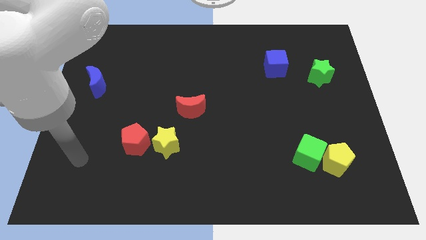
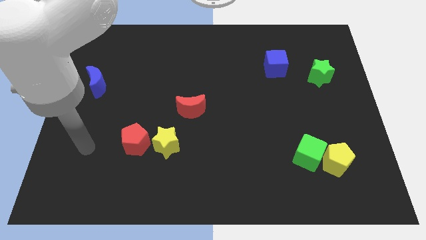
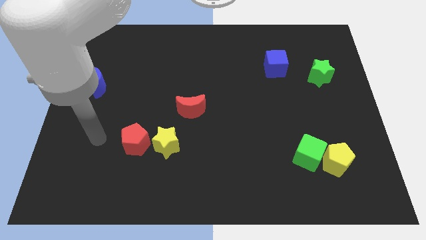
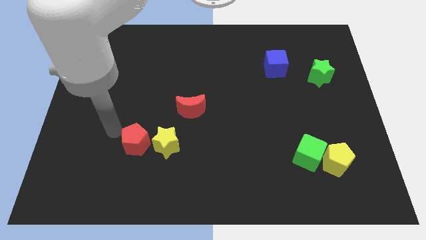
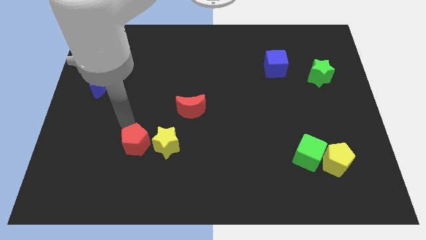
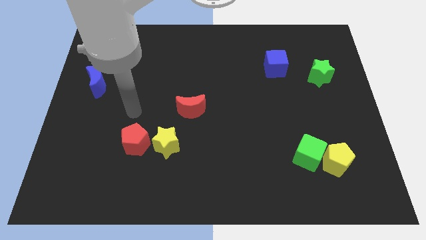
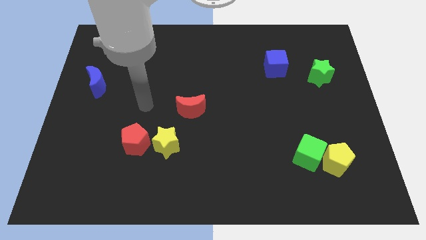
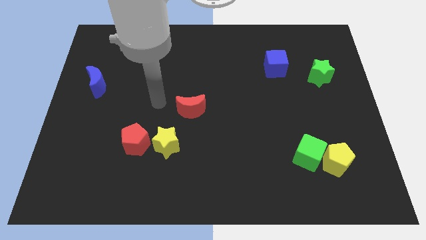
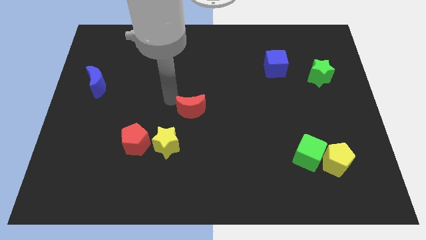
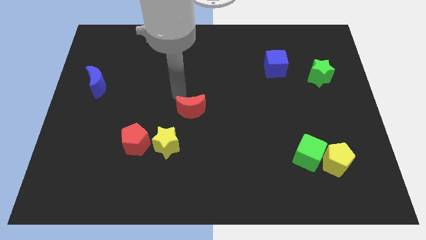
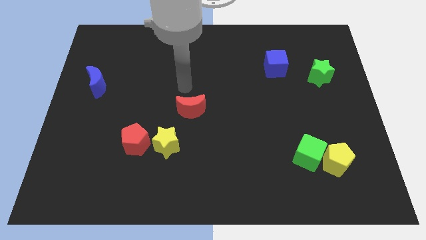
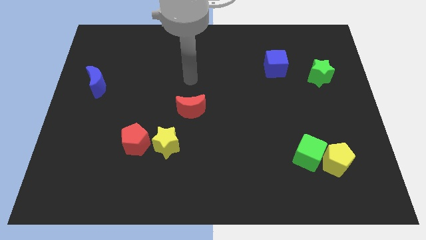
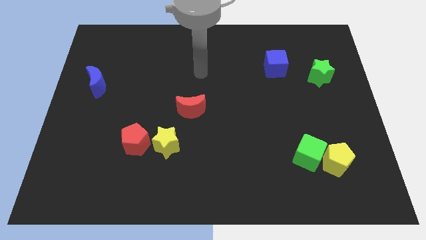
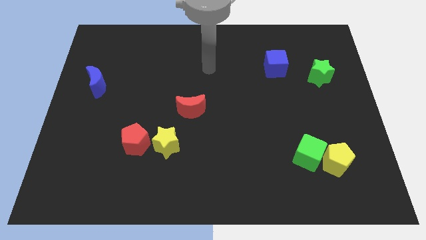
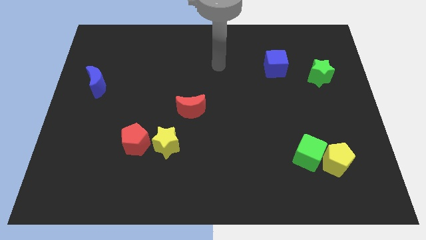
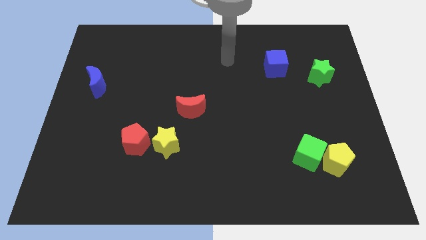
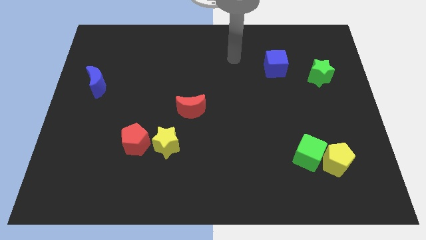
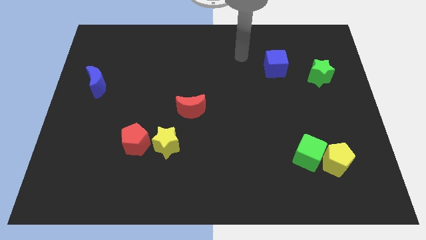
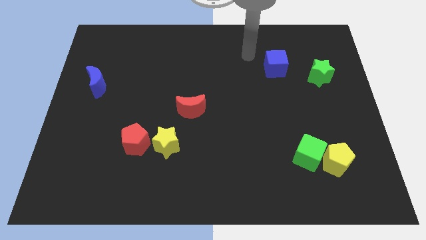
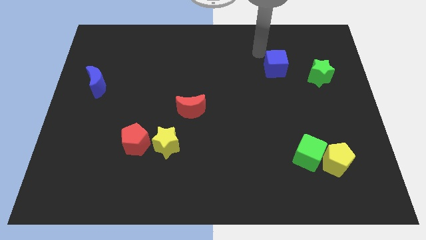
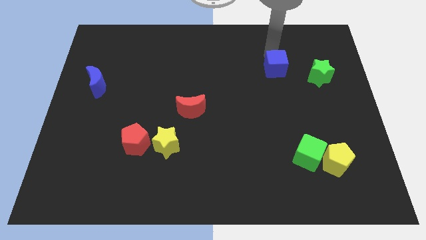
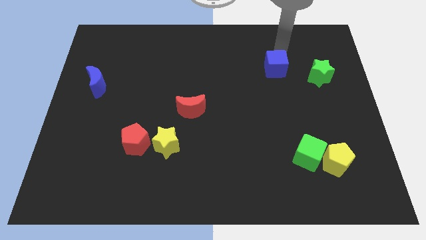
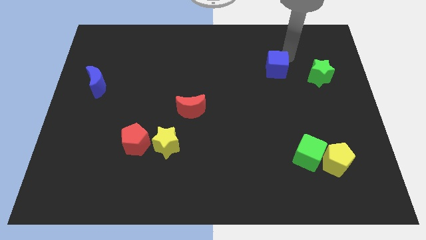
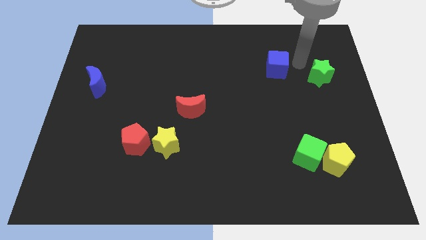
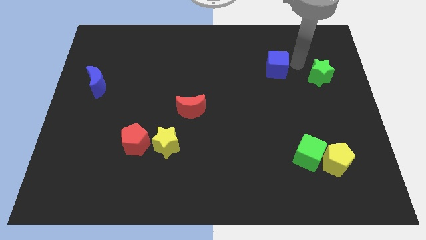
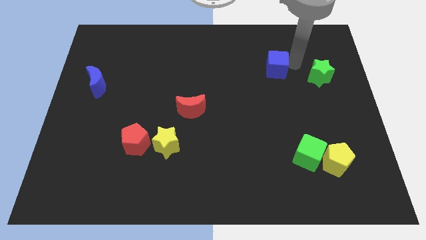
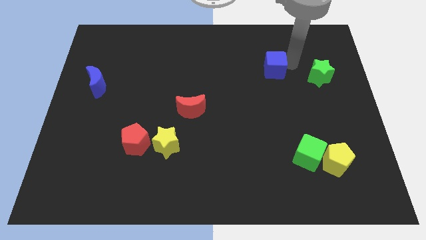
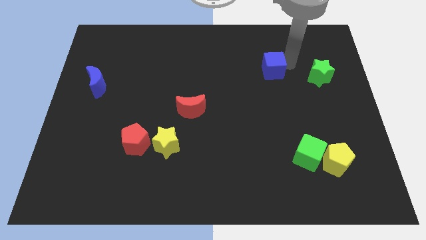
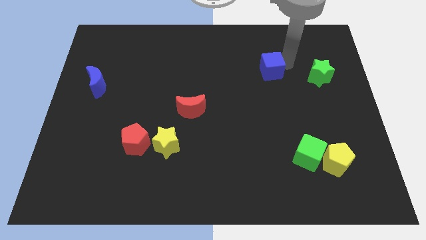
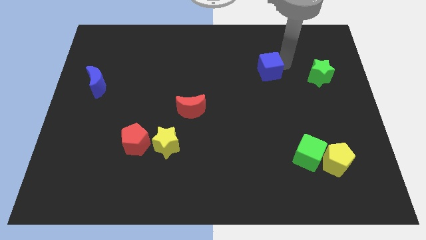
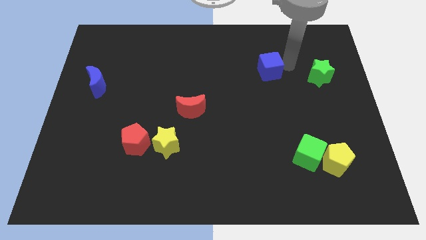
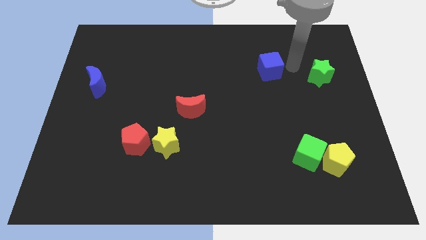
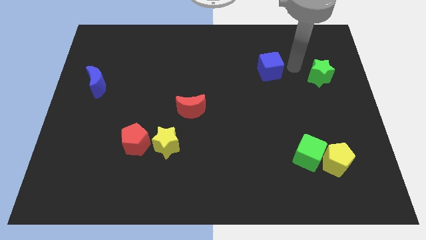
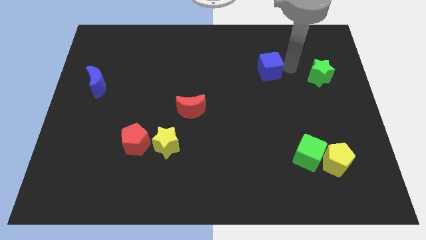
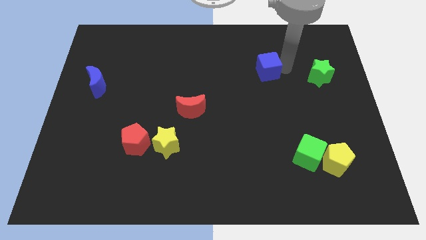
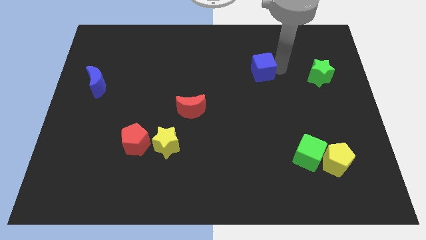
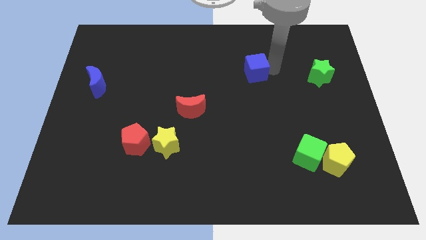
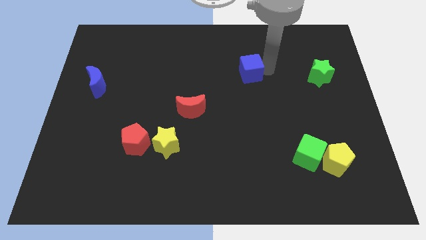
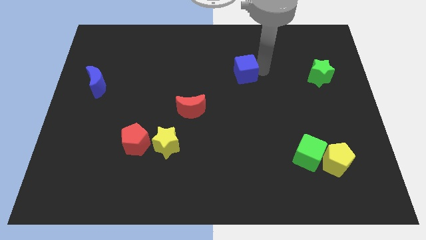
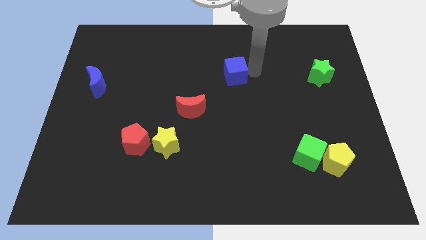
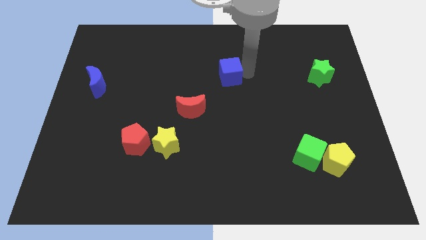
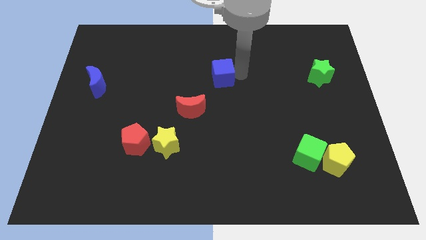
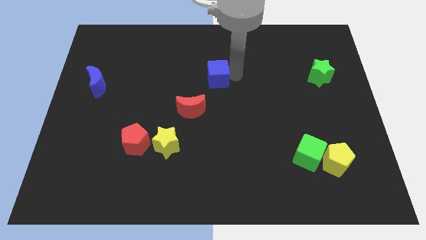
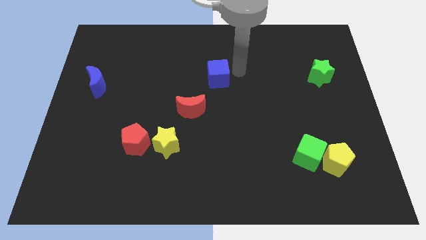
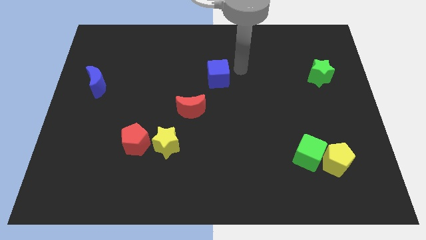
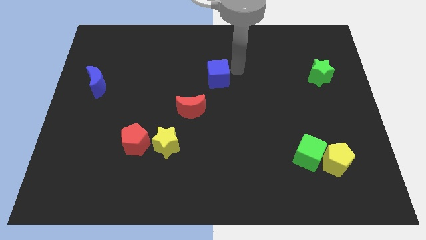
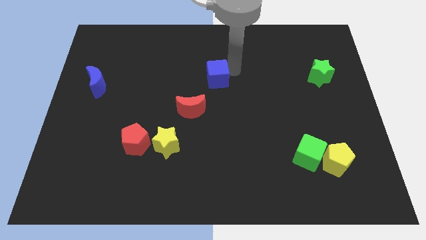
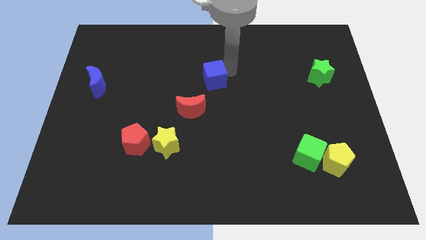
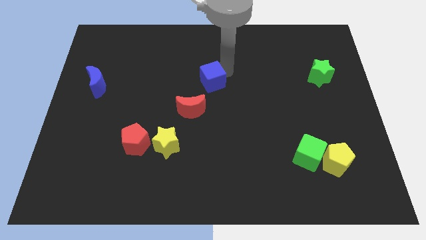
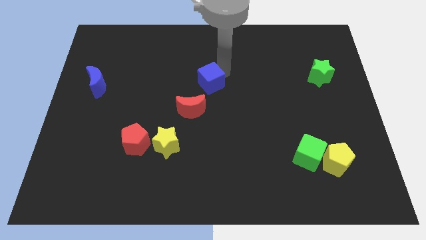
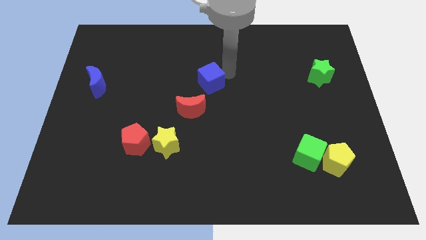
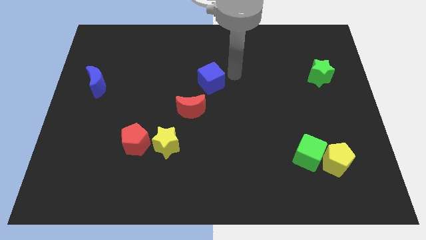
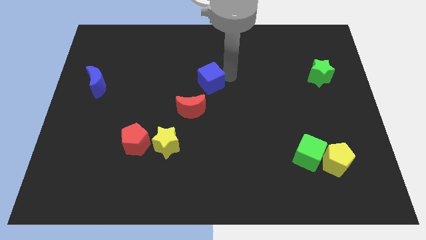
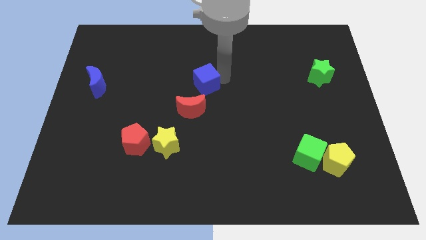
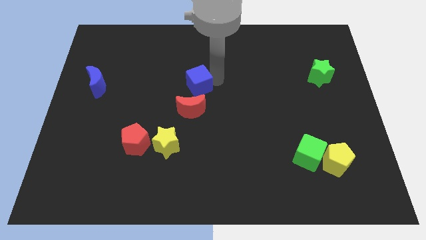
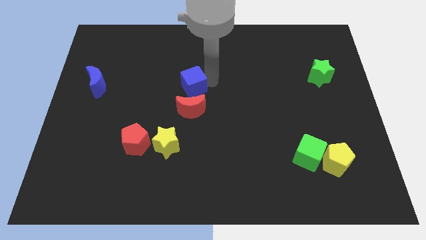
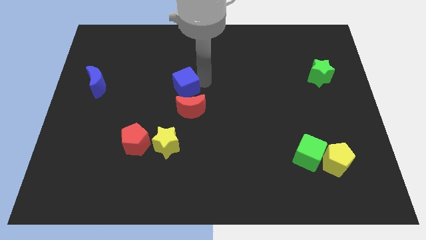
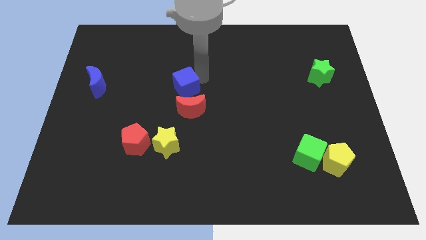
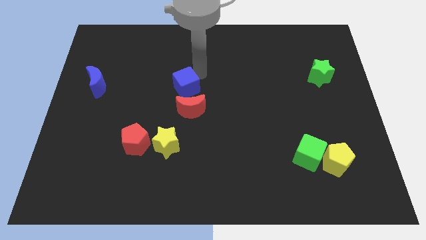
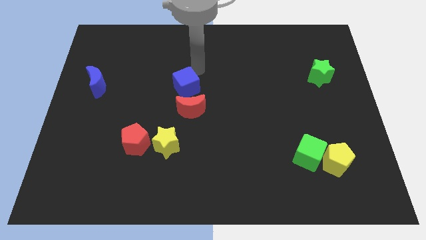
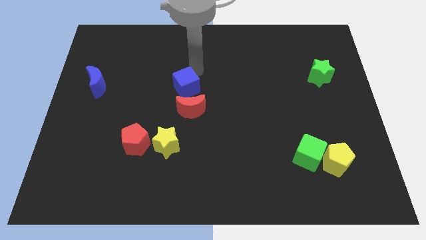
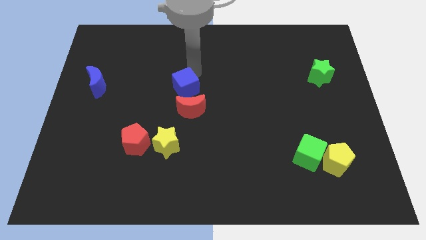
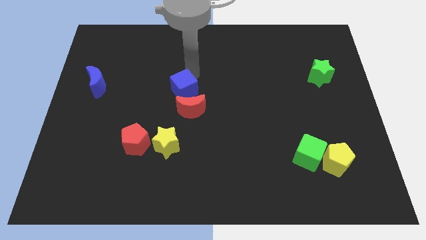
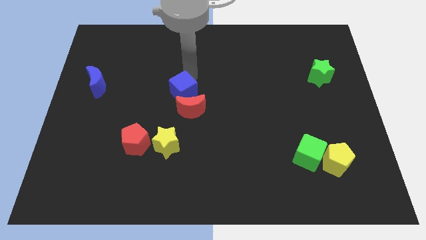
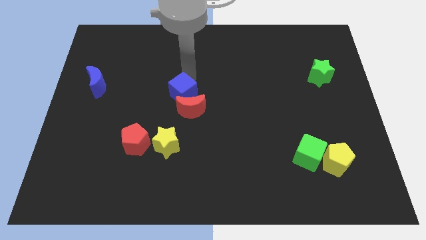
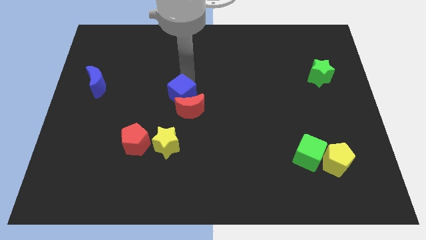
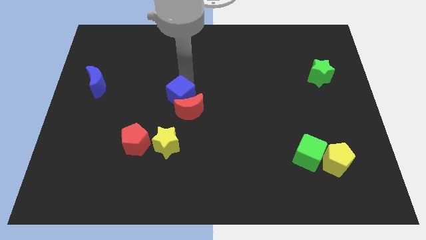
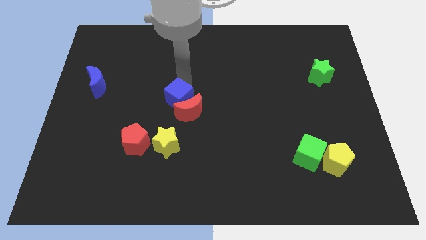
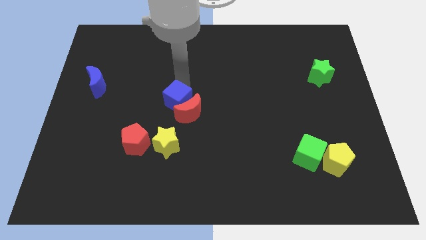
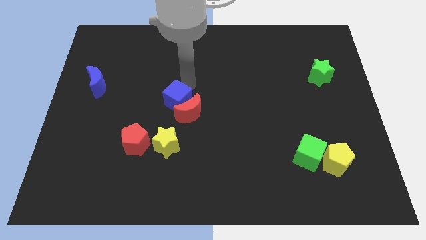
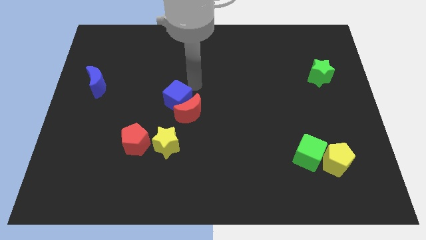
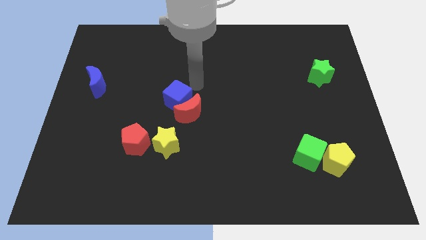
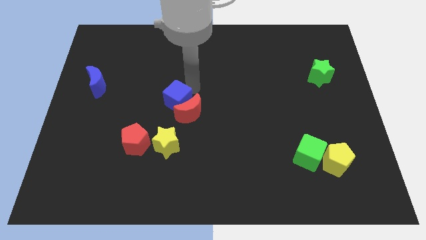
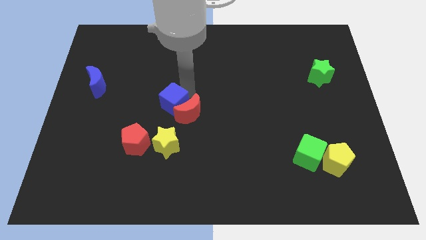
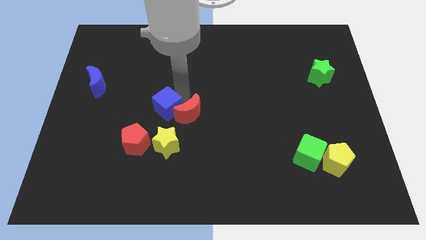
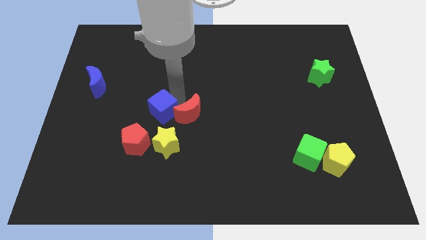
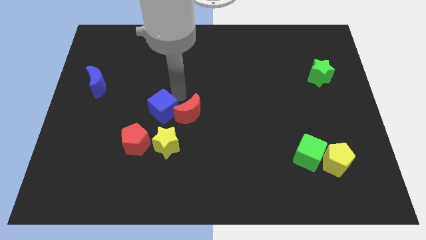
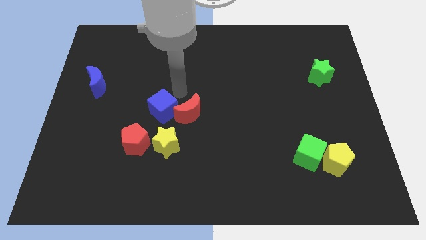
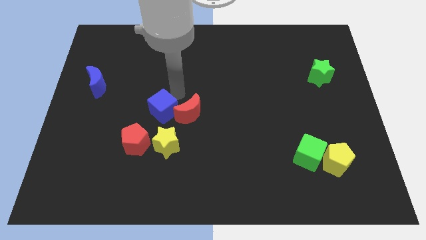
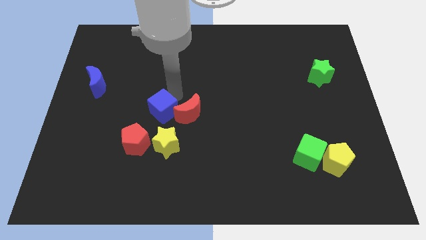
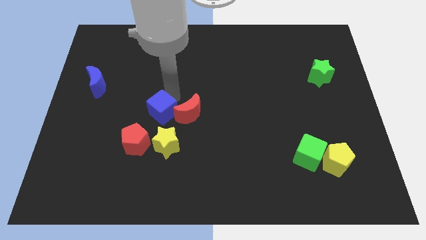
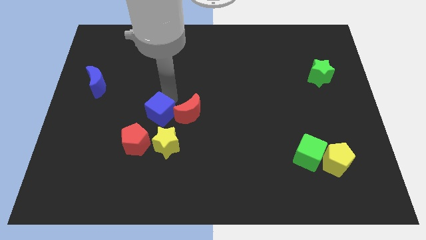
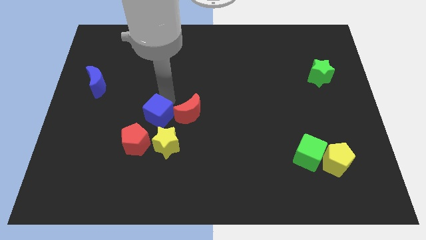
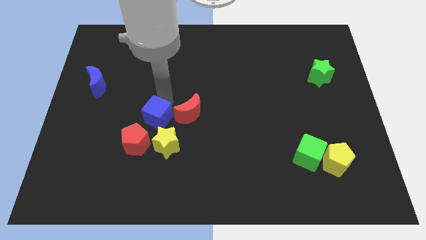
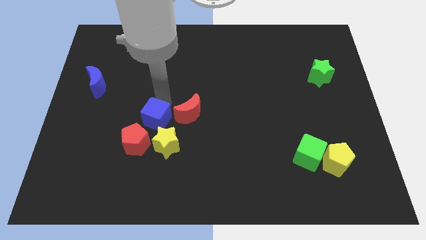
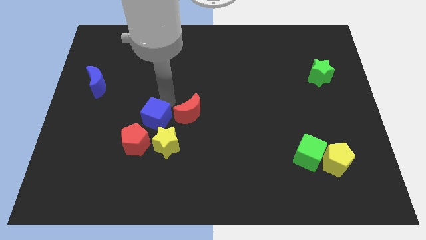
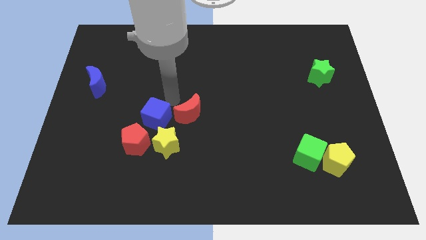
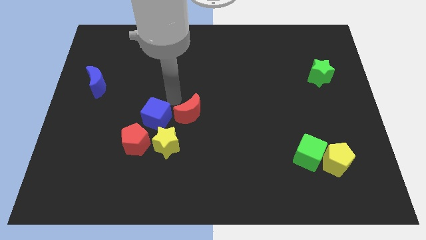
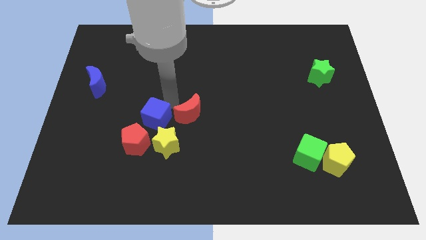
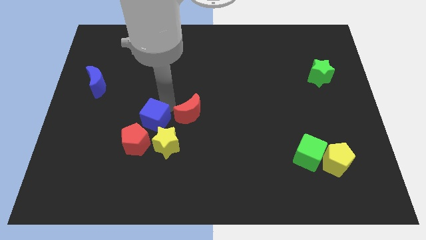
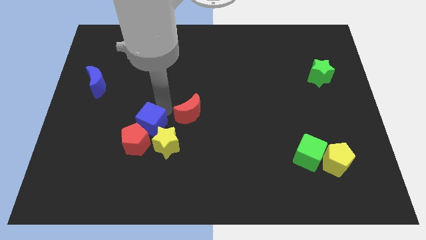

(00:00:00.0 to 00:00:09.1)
put the blue cube close to the red pentagon
